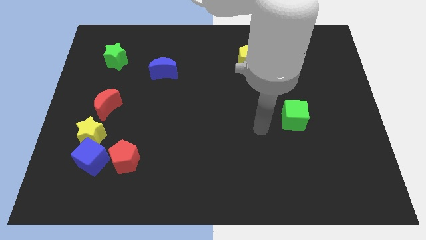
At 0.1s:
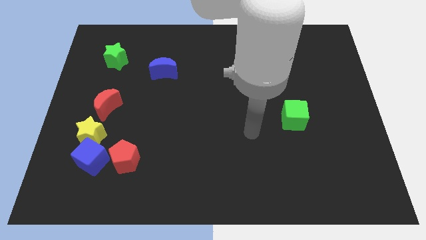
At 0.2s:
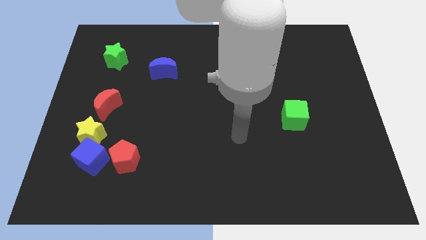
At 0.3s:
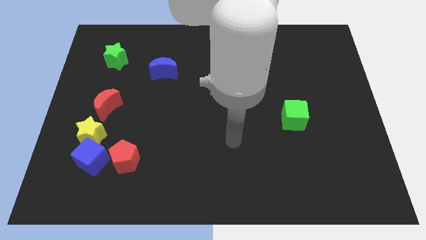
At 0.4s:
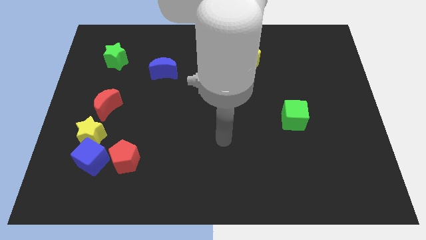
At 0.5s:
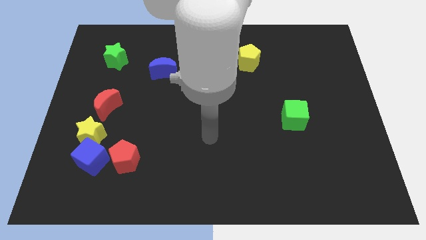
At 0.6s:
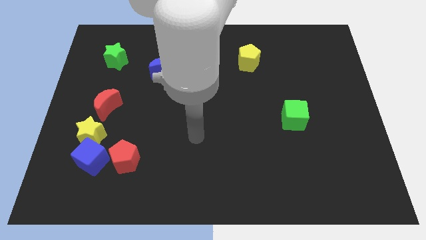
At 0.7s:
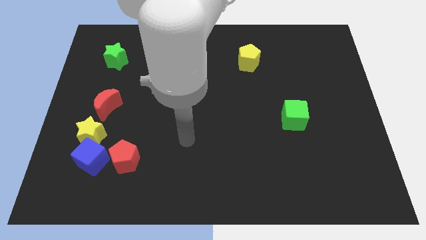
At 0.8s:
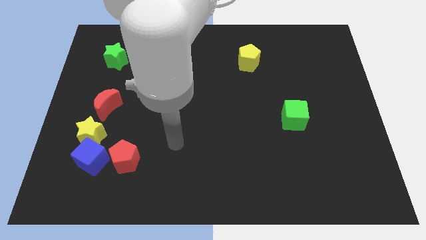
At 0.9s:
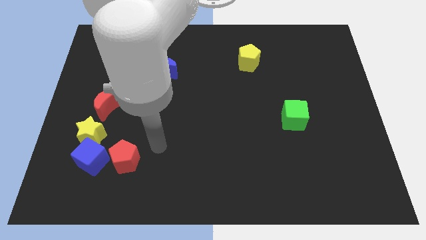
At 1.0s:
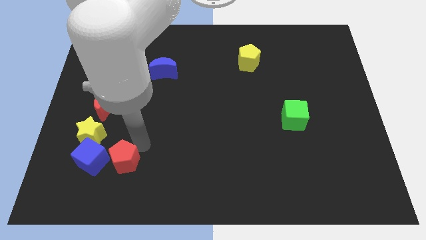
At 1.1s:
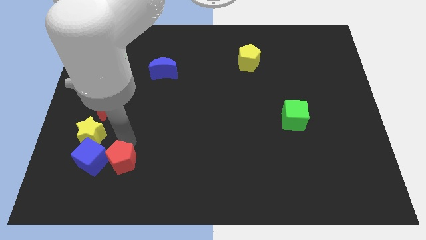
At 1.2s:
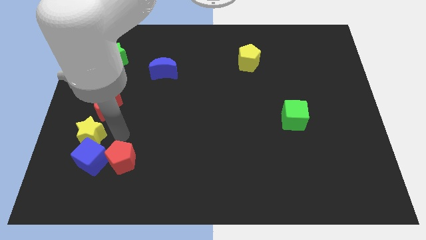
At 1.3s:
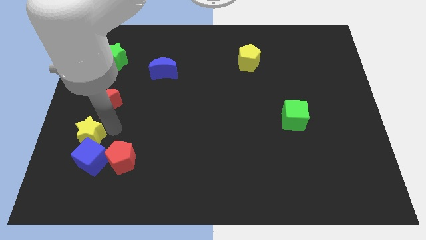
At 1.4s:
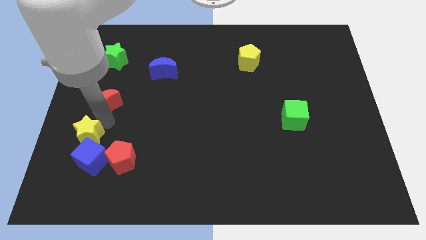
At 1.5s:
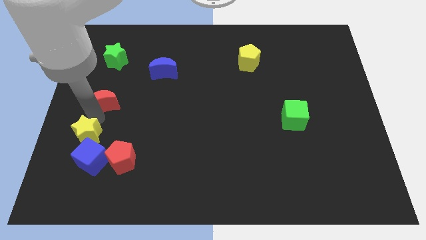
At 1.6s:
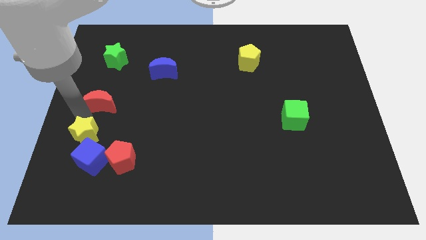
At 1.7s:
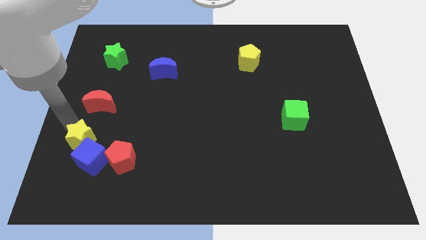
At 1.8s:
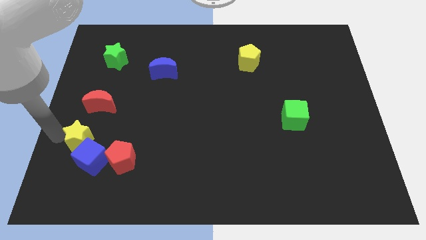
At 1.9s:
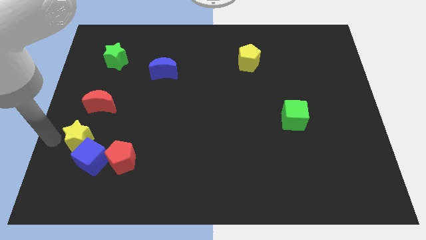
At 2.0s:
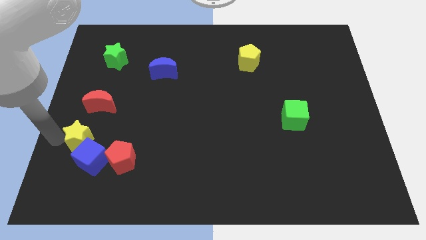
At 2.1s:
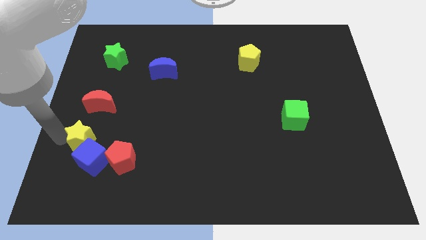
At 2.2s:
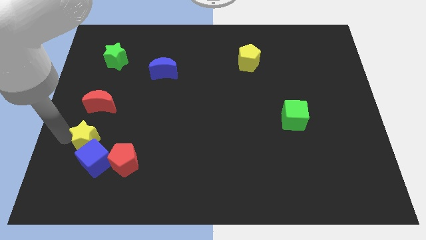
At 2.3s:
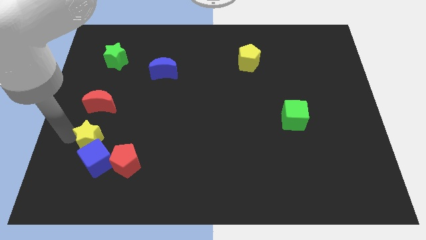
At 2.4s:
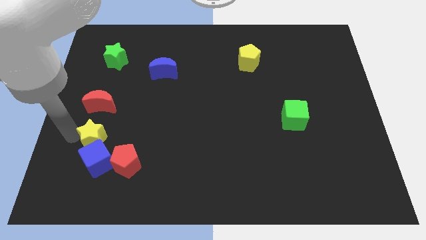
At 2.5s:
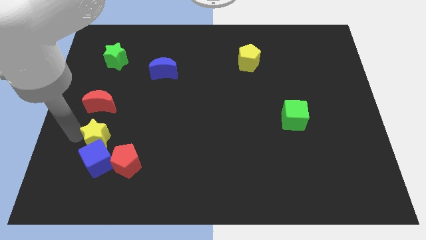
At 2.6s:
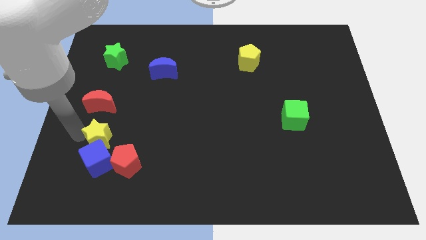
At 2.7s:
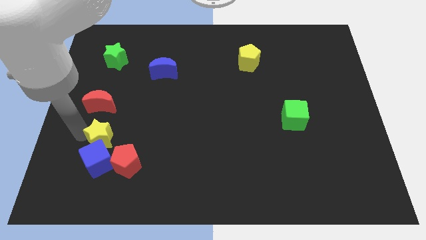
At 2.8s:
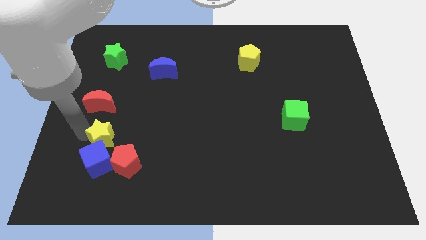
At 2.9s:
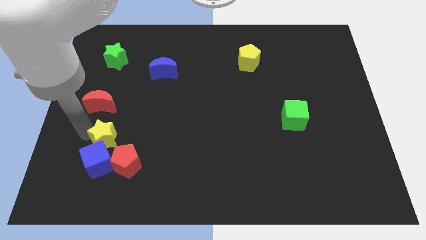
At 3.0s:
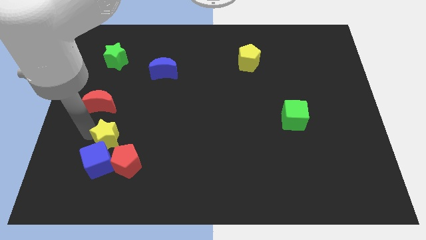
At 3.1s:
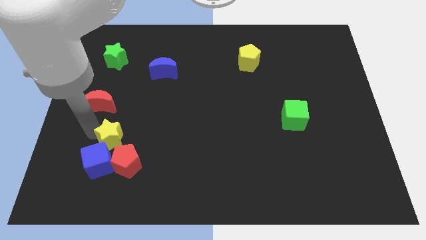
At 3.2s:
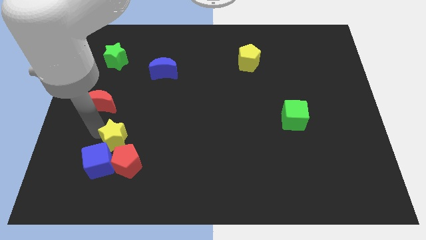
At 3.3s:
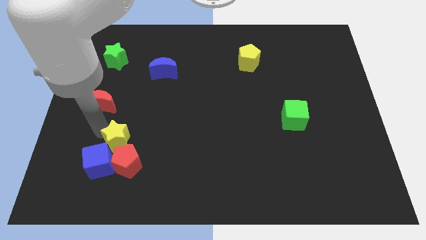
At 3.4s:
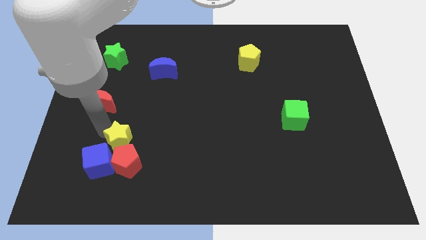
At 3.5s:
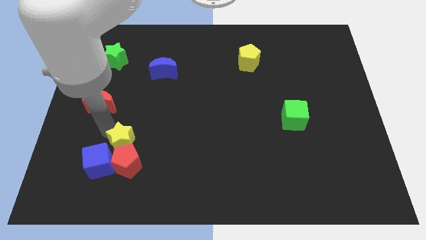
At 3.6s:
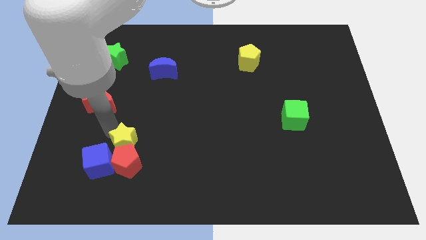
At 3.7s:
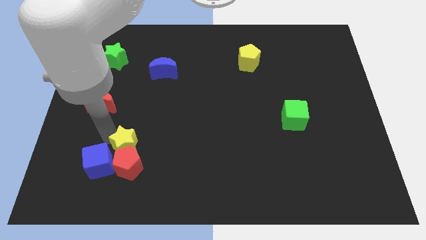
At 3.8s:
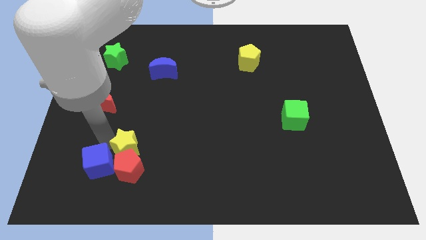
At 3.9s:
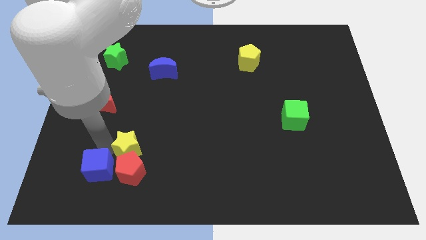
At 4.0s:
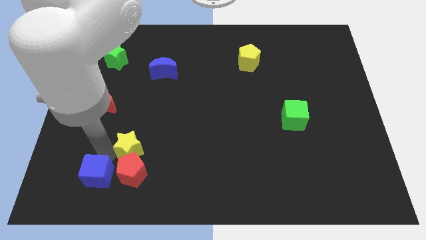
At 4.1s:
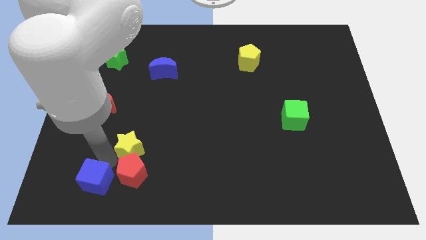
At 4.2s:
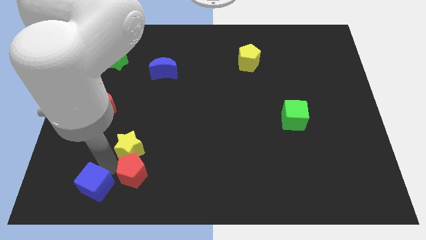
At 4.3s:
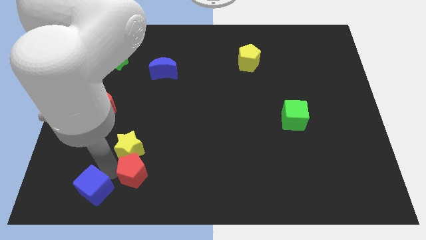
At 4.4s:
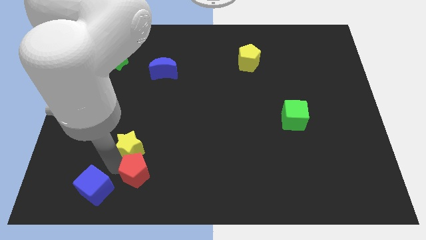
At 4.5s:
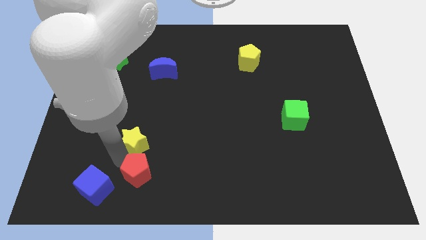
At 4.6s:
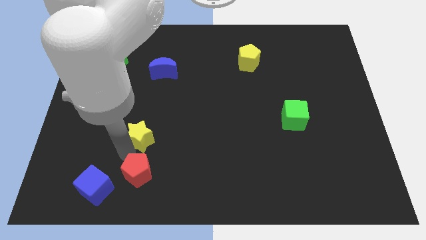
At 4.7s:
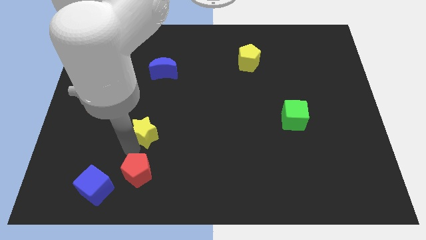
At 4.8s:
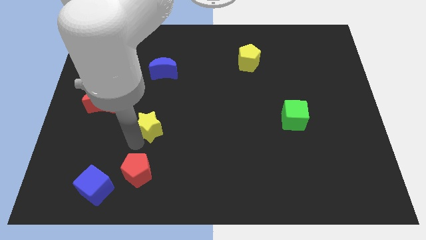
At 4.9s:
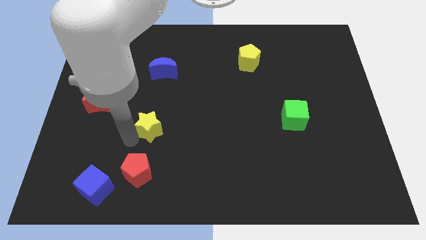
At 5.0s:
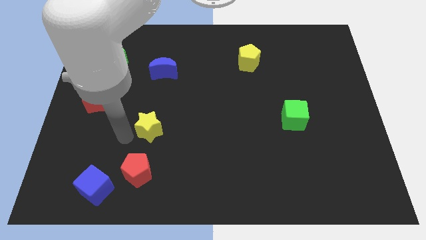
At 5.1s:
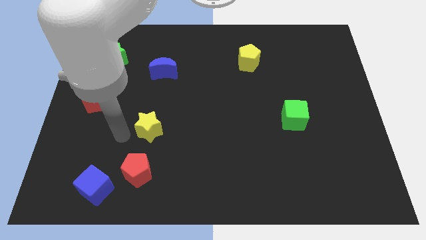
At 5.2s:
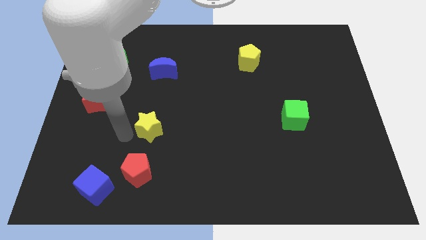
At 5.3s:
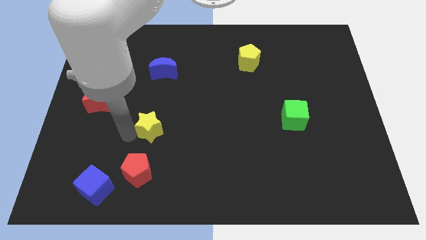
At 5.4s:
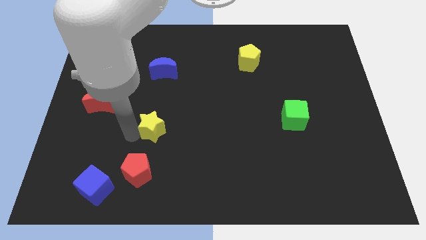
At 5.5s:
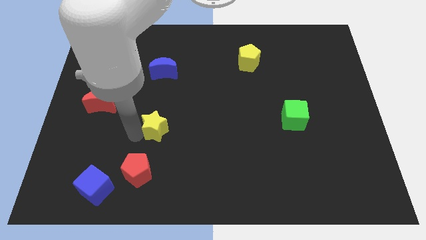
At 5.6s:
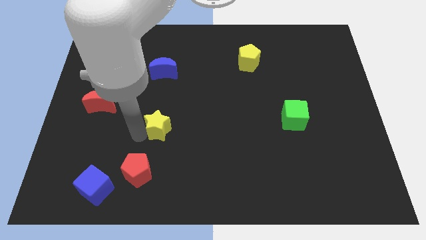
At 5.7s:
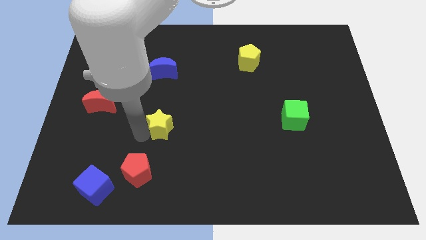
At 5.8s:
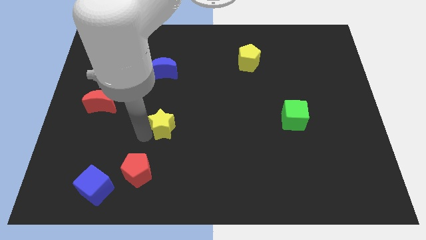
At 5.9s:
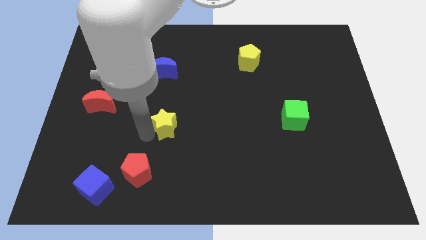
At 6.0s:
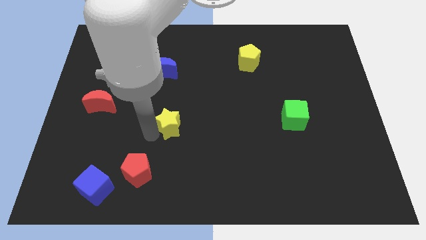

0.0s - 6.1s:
put the yellow star to the middle of the board

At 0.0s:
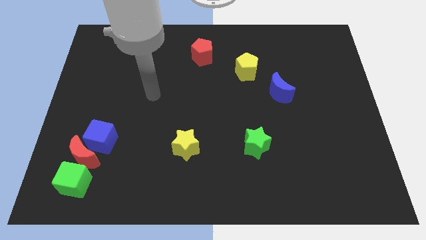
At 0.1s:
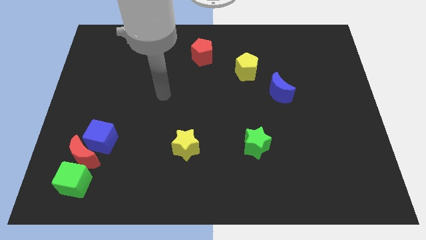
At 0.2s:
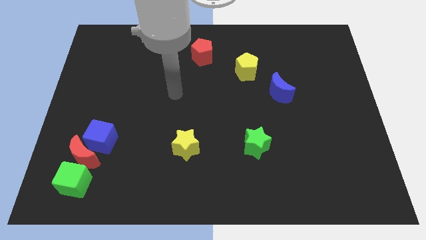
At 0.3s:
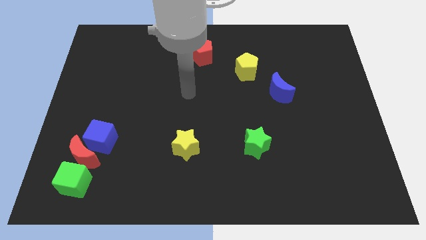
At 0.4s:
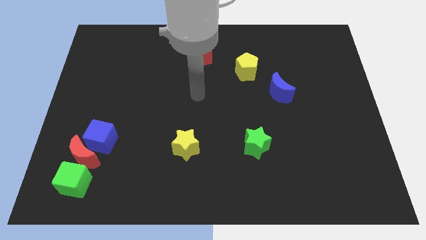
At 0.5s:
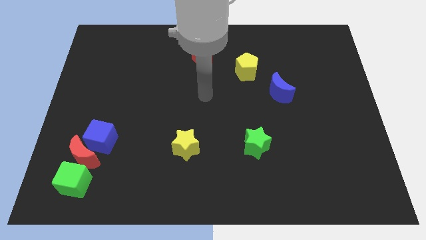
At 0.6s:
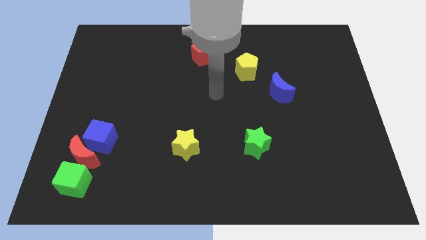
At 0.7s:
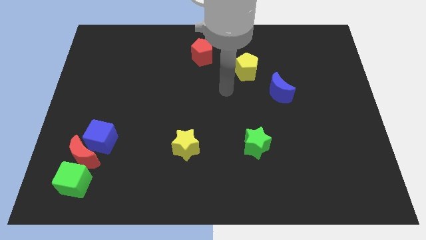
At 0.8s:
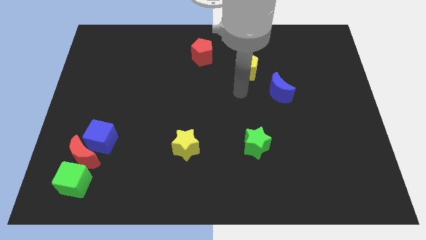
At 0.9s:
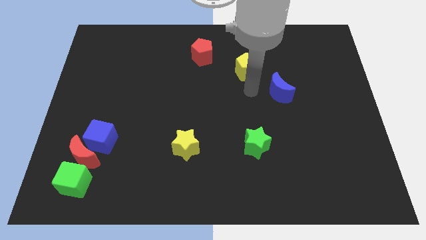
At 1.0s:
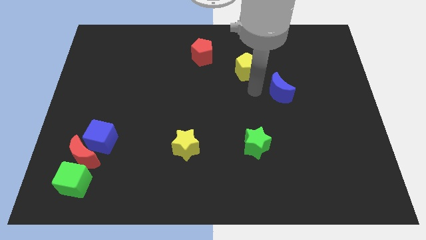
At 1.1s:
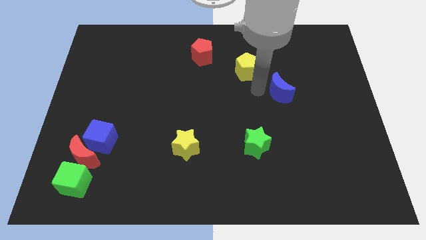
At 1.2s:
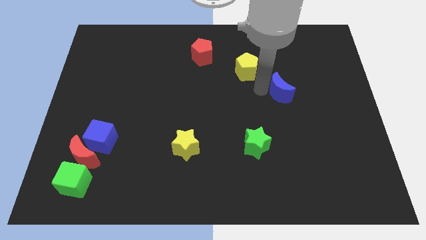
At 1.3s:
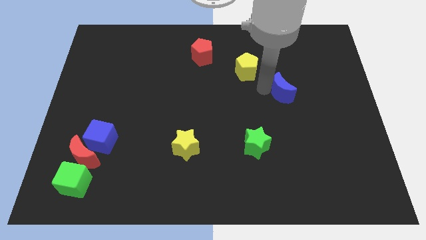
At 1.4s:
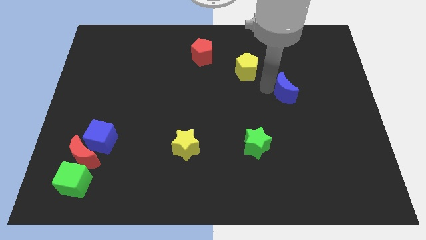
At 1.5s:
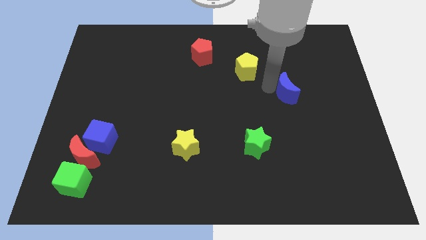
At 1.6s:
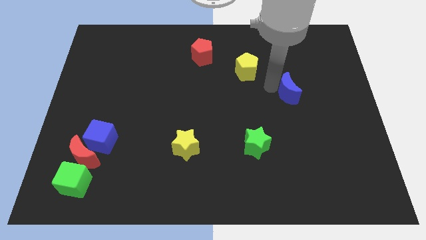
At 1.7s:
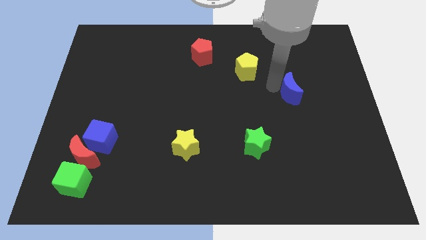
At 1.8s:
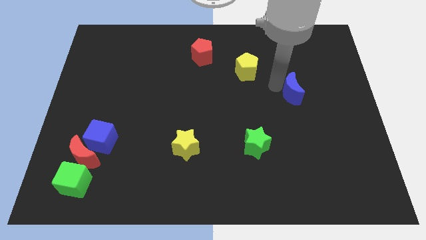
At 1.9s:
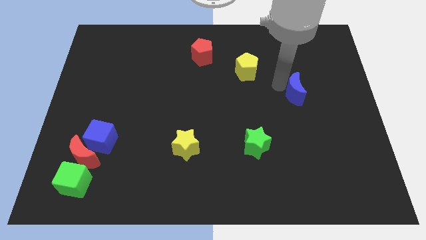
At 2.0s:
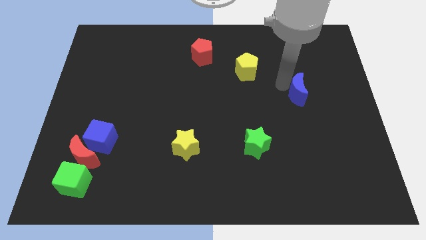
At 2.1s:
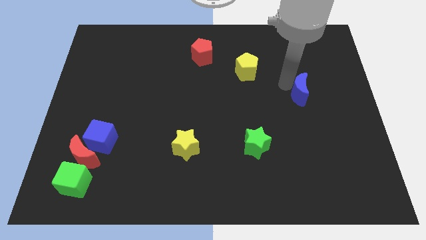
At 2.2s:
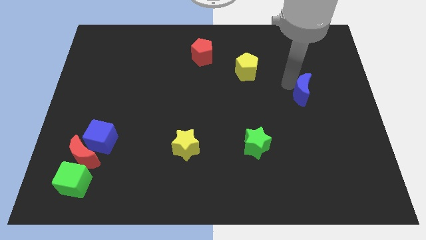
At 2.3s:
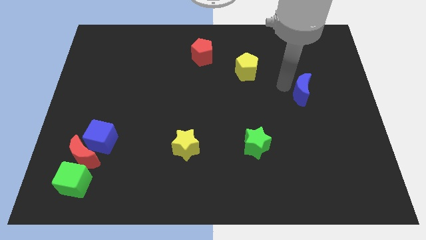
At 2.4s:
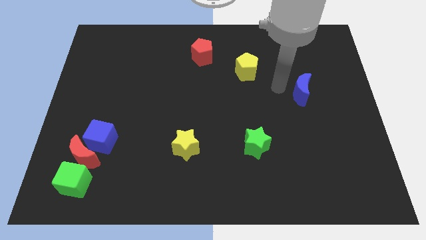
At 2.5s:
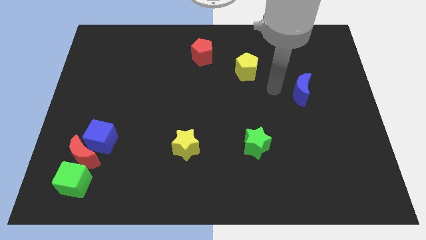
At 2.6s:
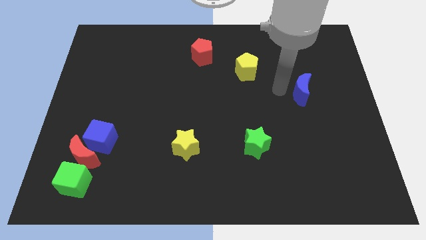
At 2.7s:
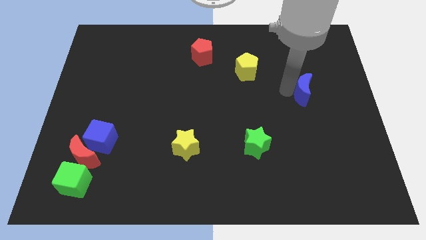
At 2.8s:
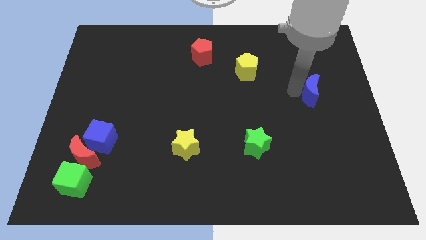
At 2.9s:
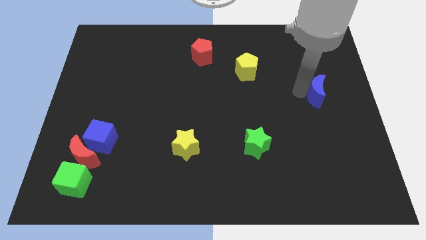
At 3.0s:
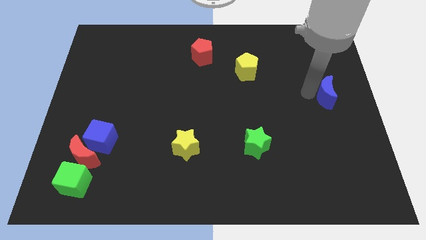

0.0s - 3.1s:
put the blue moon to the right side
